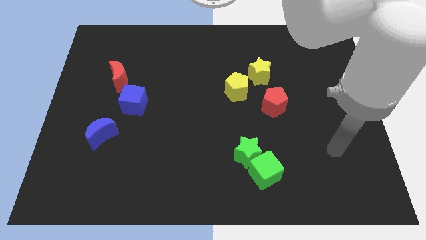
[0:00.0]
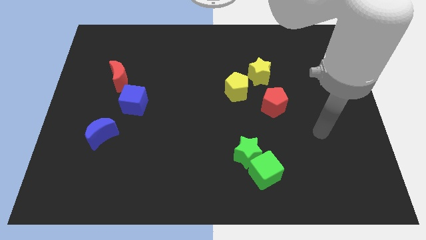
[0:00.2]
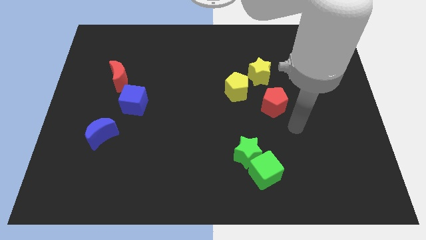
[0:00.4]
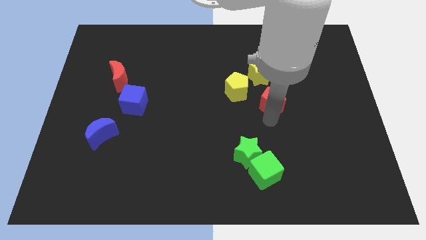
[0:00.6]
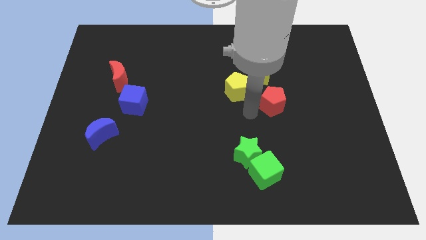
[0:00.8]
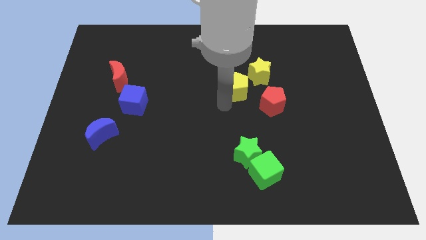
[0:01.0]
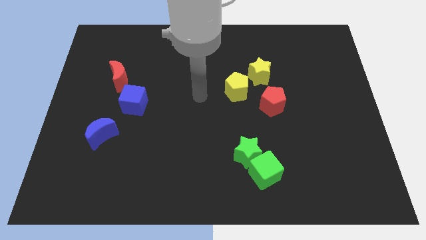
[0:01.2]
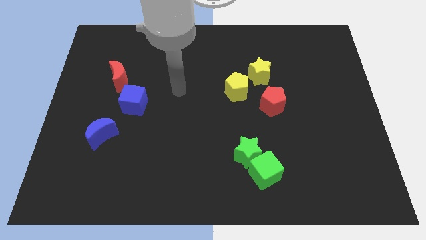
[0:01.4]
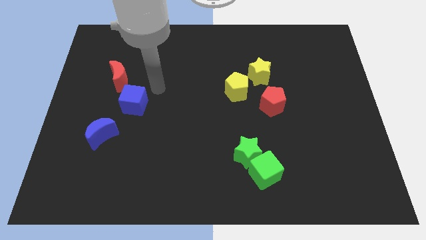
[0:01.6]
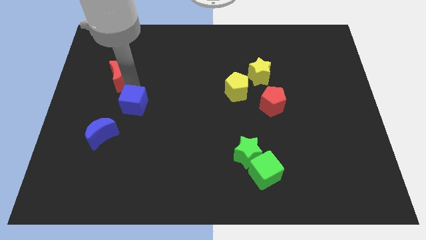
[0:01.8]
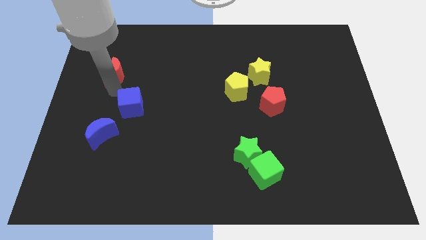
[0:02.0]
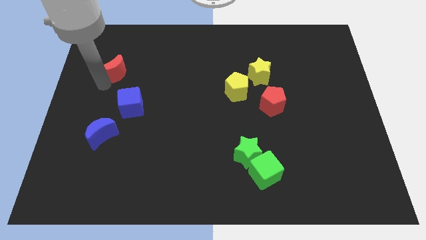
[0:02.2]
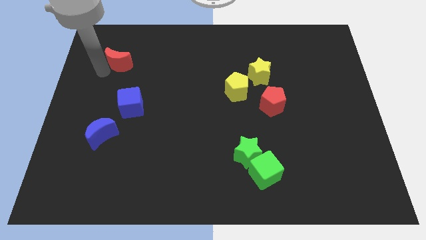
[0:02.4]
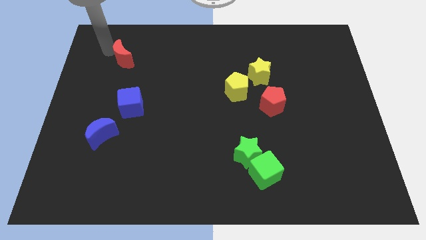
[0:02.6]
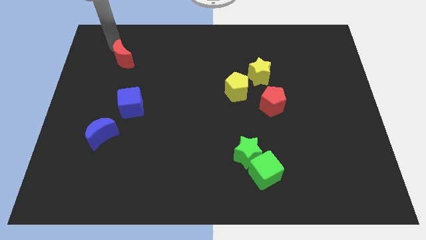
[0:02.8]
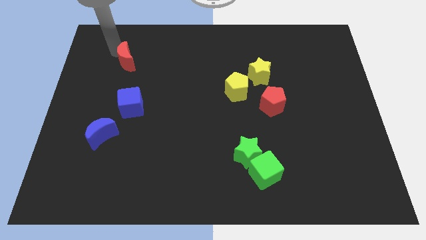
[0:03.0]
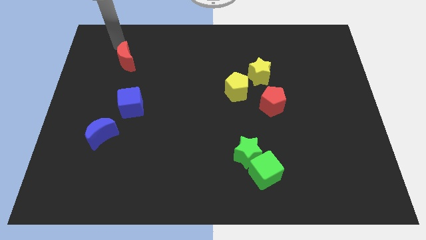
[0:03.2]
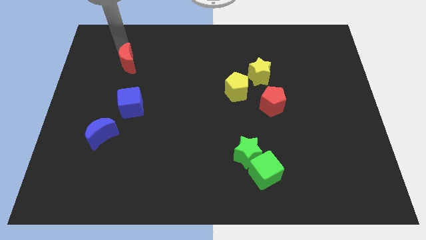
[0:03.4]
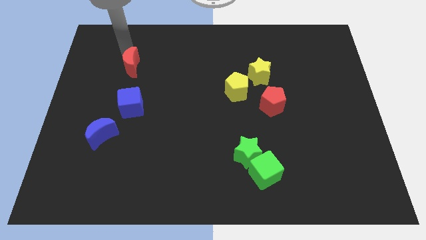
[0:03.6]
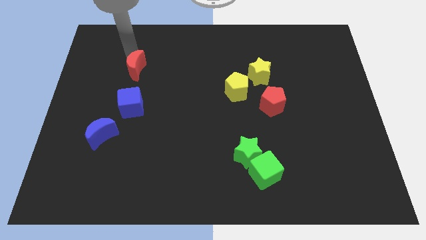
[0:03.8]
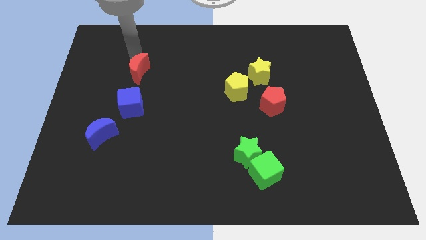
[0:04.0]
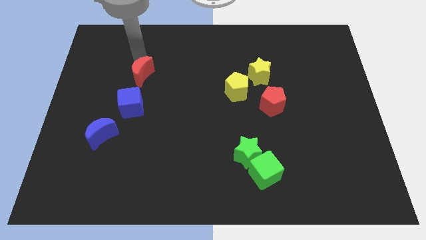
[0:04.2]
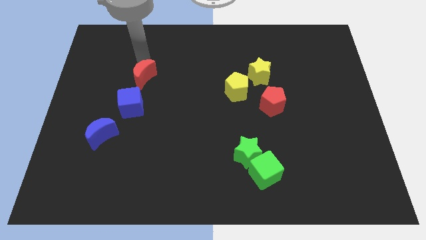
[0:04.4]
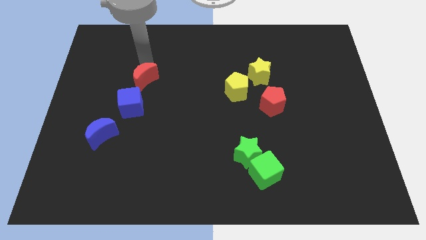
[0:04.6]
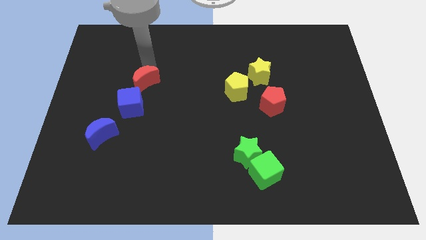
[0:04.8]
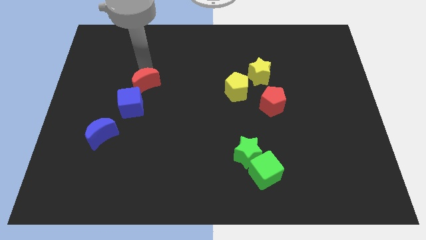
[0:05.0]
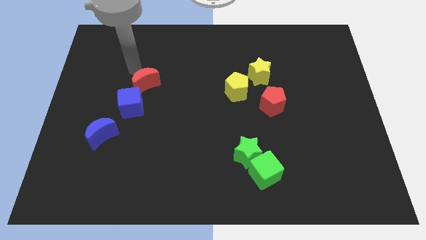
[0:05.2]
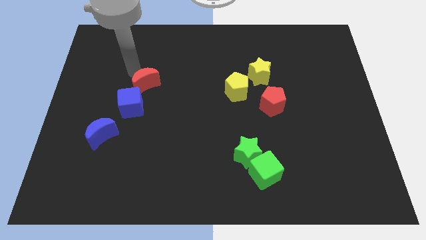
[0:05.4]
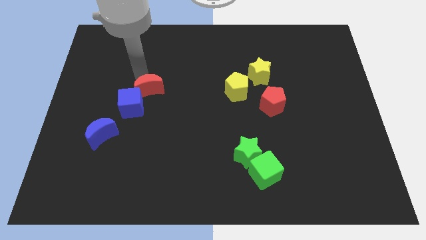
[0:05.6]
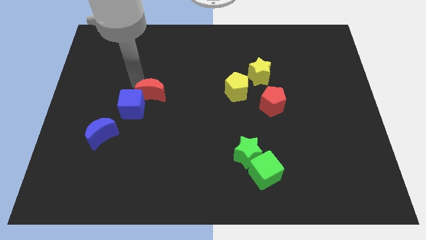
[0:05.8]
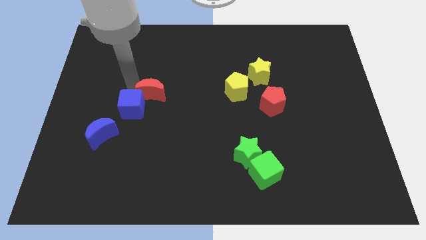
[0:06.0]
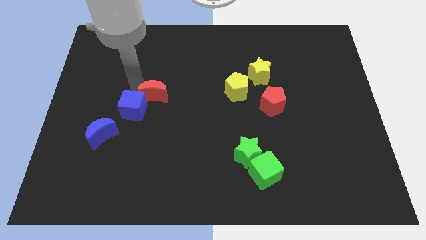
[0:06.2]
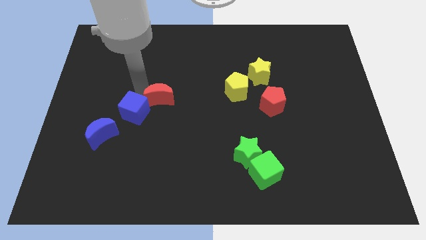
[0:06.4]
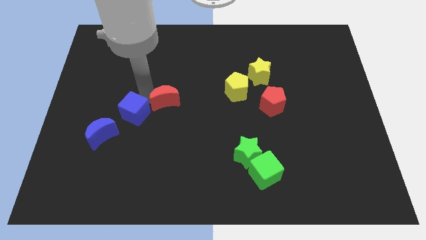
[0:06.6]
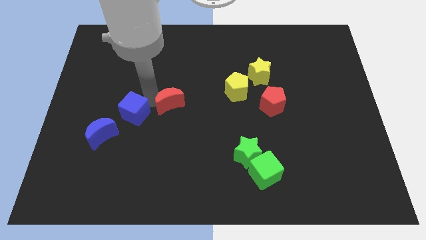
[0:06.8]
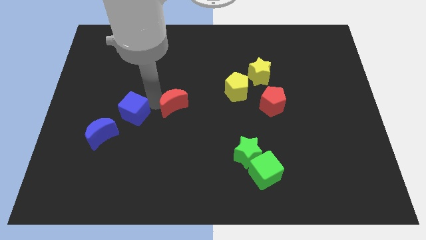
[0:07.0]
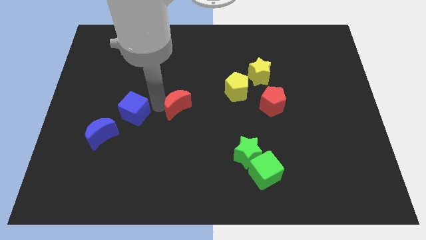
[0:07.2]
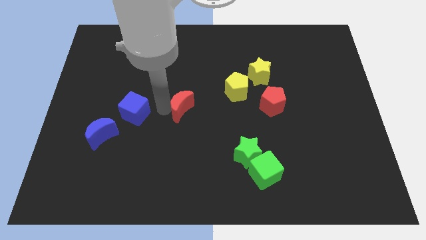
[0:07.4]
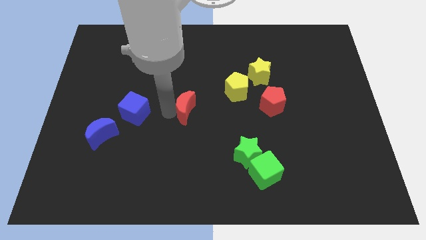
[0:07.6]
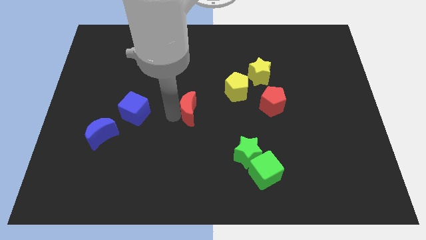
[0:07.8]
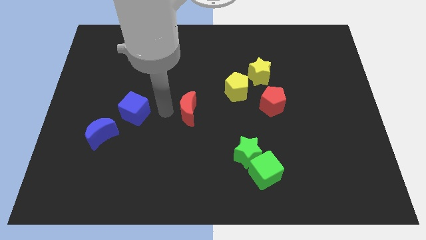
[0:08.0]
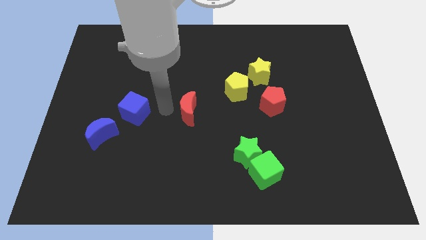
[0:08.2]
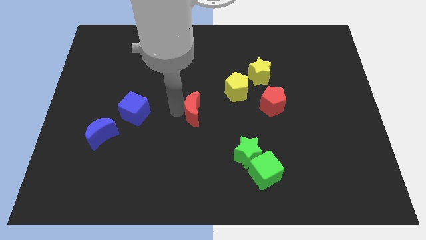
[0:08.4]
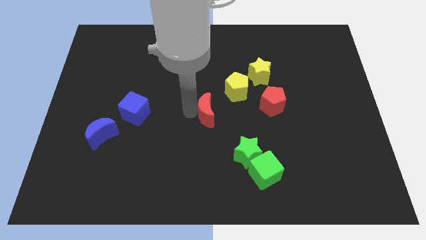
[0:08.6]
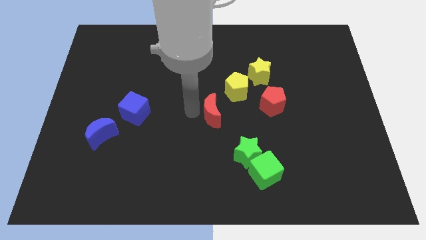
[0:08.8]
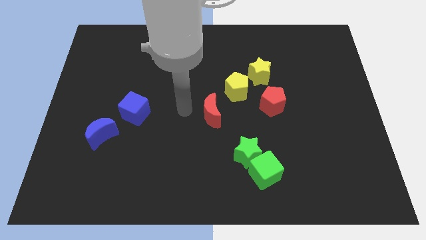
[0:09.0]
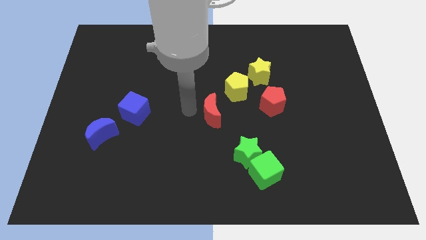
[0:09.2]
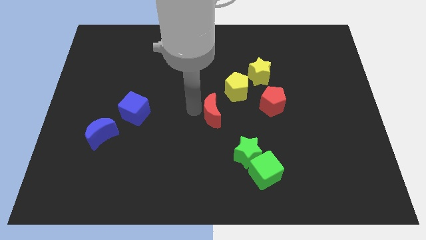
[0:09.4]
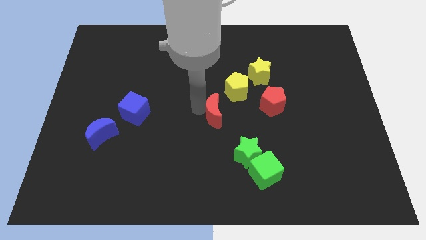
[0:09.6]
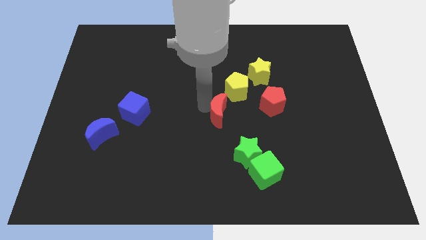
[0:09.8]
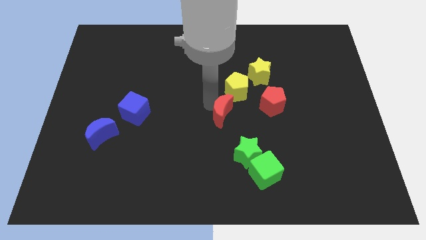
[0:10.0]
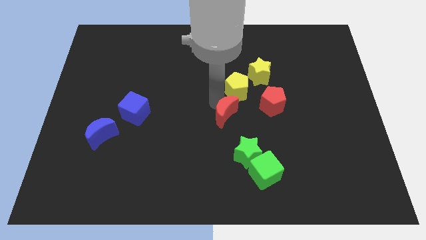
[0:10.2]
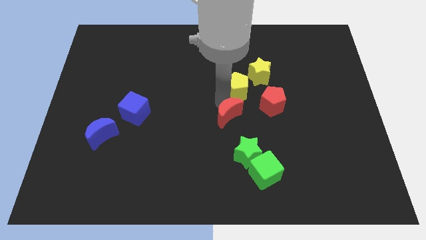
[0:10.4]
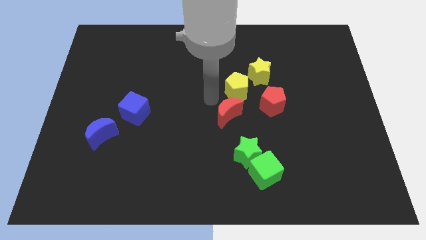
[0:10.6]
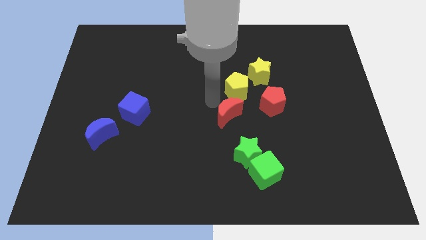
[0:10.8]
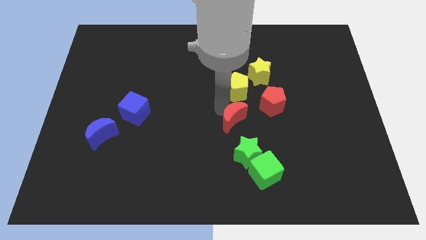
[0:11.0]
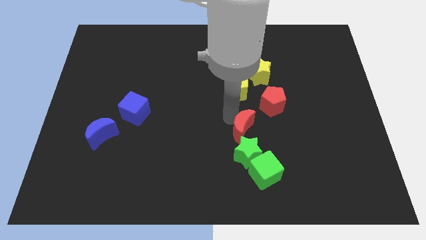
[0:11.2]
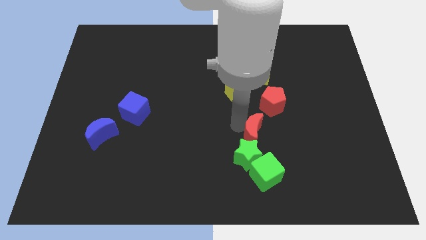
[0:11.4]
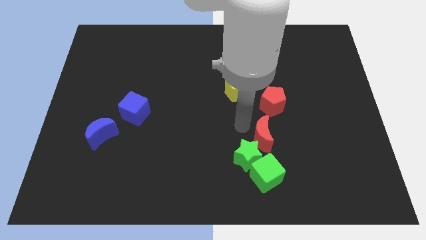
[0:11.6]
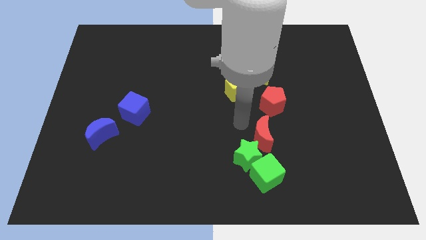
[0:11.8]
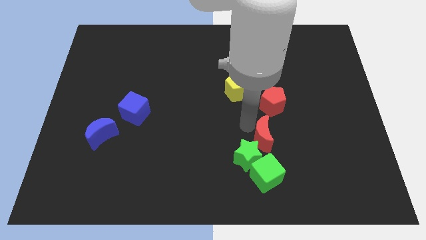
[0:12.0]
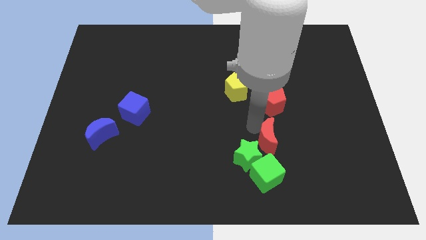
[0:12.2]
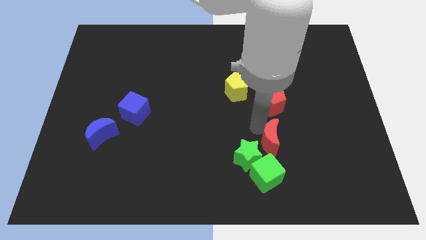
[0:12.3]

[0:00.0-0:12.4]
put the red moon to the top right side of the green cube
